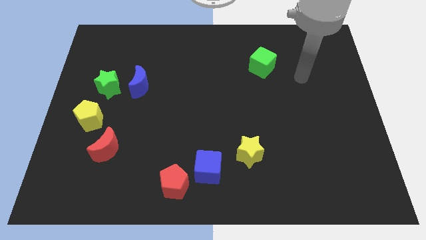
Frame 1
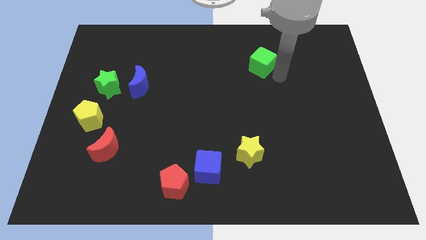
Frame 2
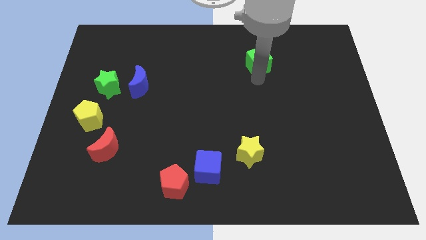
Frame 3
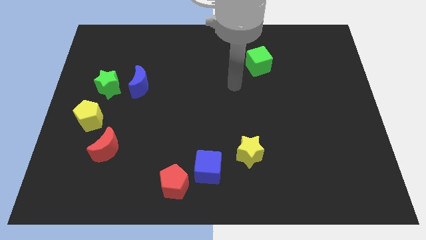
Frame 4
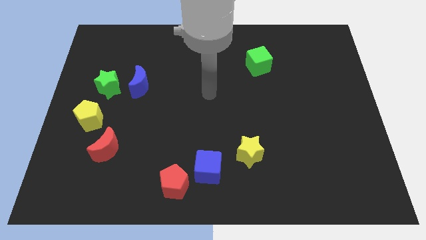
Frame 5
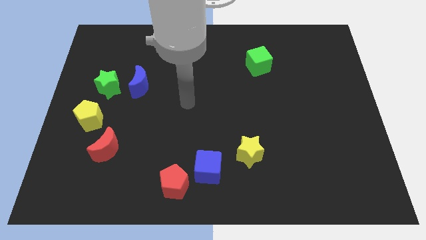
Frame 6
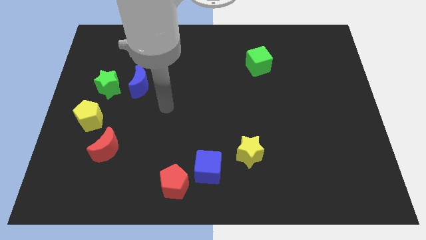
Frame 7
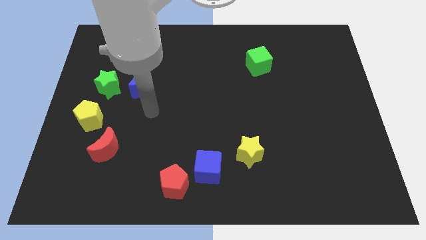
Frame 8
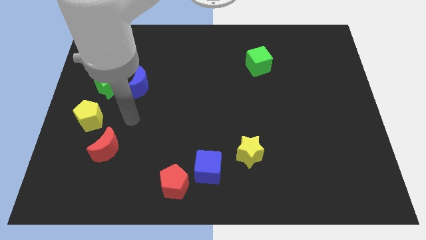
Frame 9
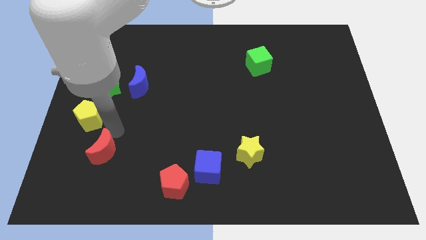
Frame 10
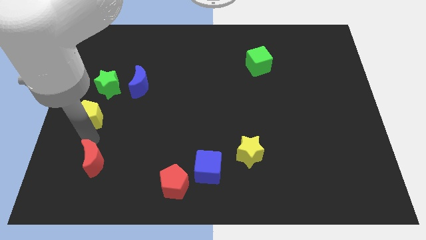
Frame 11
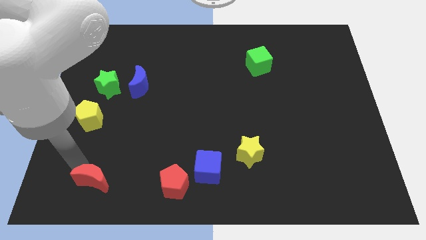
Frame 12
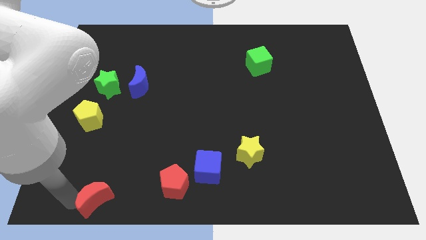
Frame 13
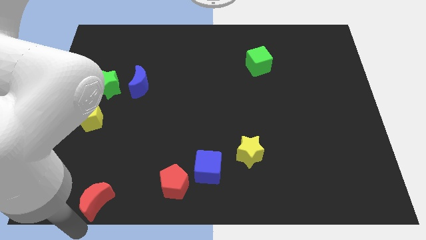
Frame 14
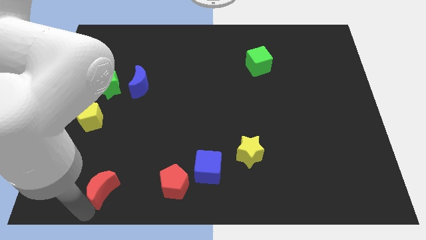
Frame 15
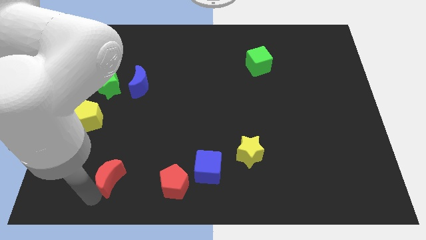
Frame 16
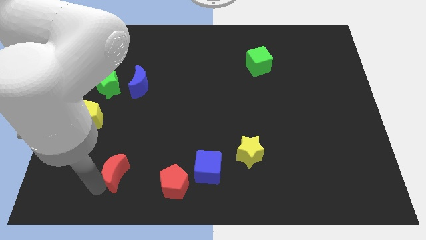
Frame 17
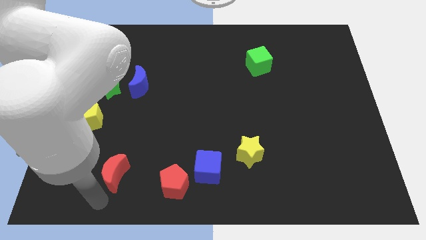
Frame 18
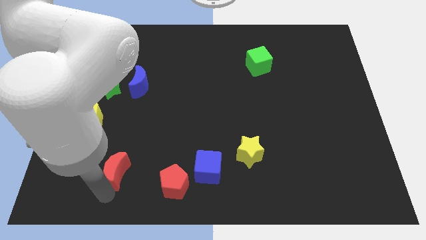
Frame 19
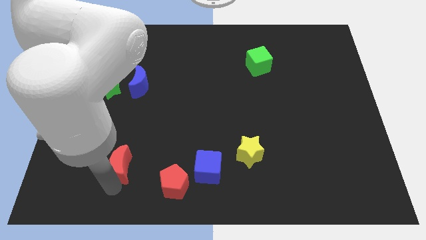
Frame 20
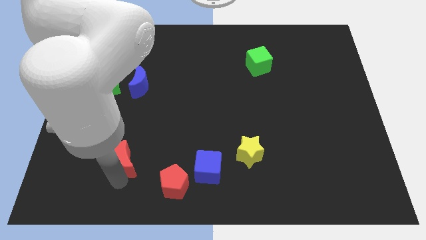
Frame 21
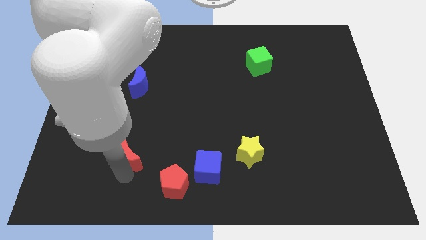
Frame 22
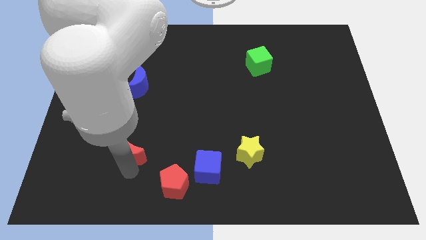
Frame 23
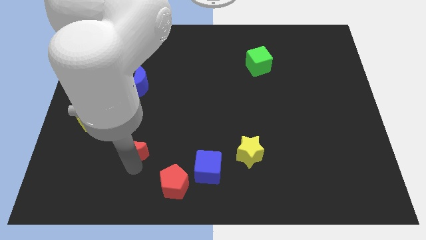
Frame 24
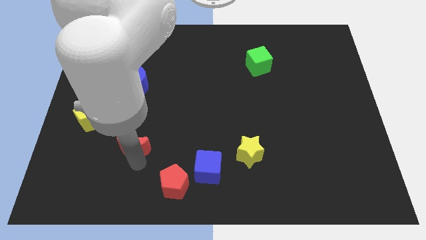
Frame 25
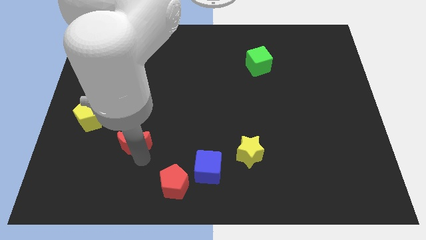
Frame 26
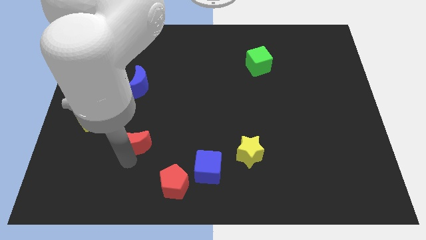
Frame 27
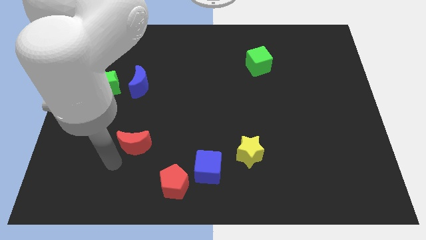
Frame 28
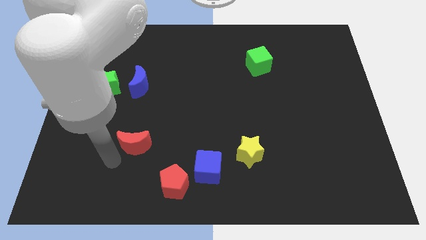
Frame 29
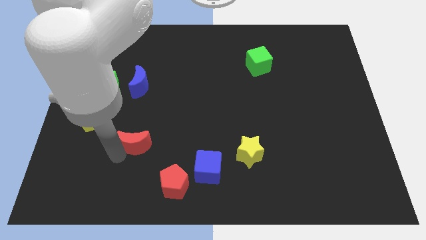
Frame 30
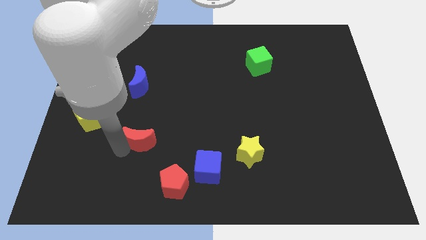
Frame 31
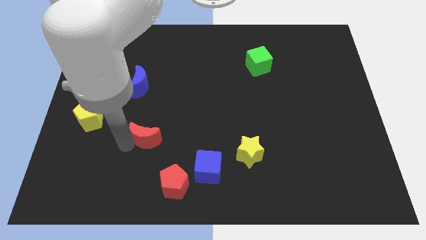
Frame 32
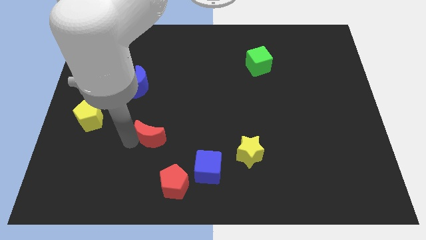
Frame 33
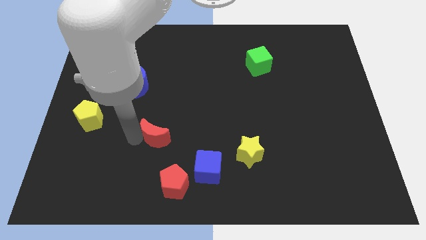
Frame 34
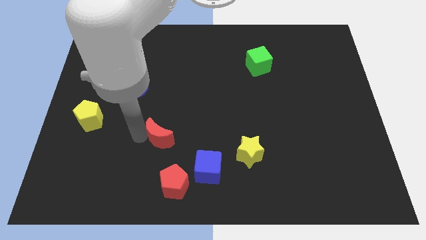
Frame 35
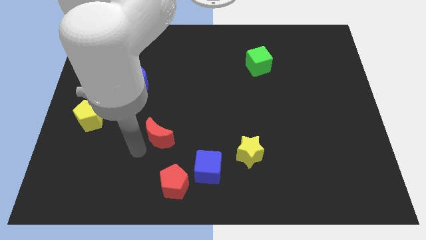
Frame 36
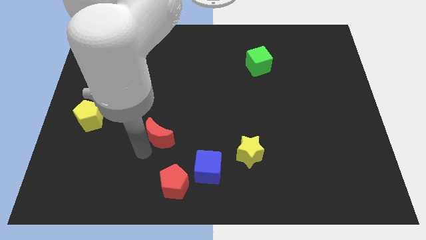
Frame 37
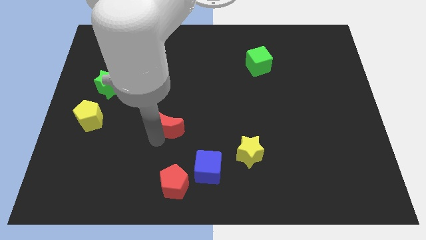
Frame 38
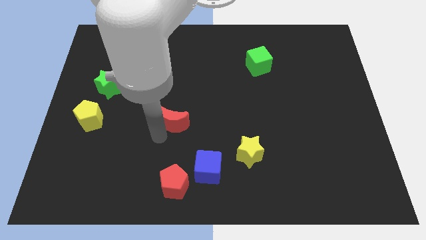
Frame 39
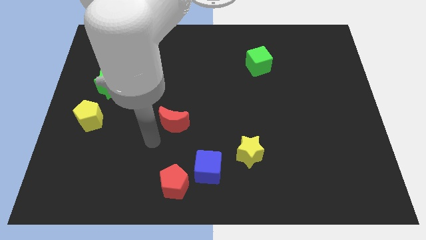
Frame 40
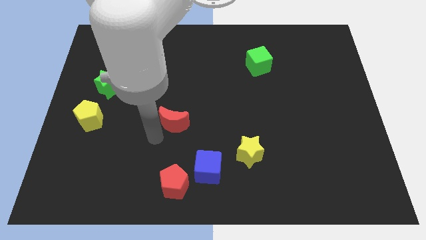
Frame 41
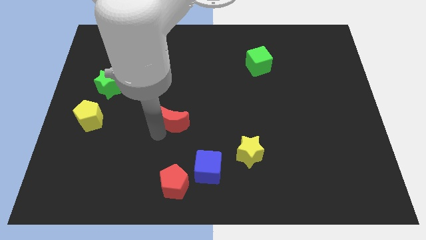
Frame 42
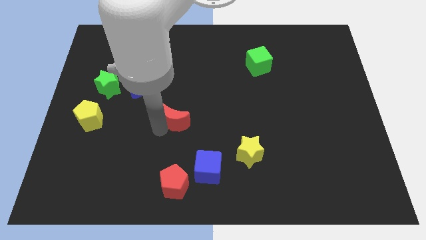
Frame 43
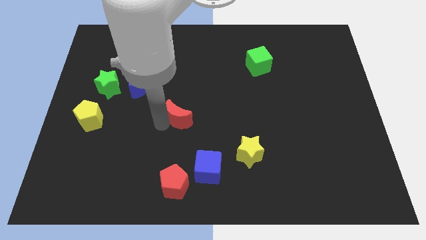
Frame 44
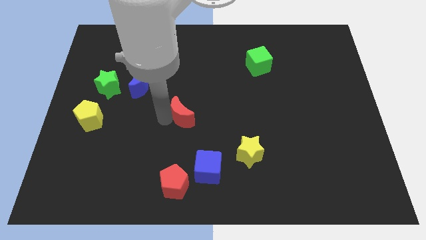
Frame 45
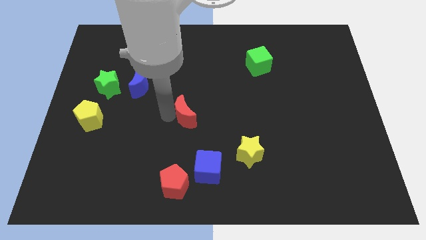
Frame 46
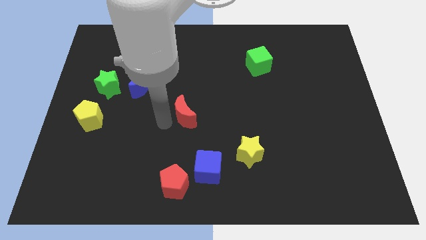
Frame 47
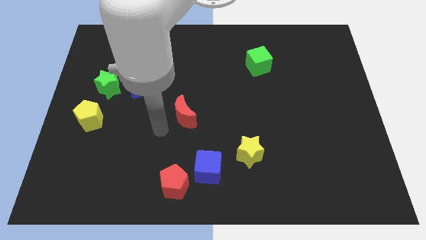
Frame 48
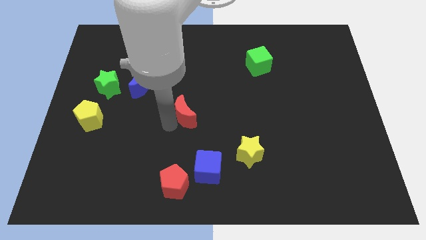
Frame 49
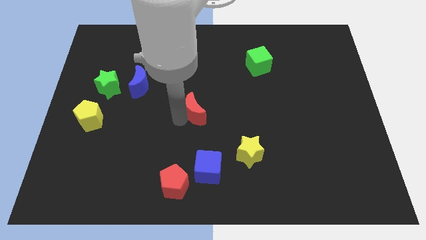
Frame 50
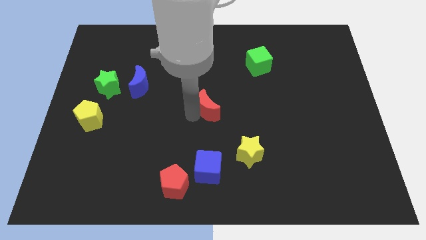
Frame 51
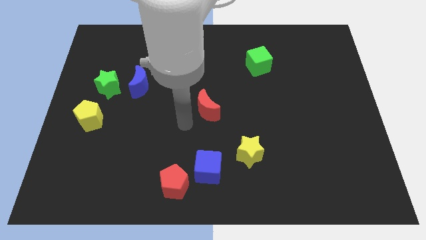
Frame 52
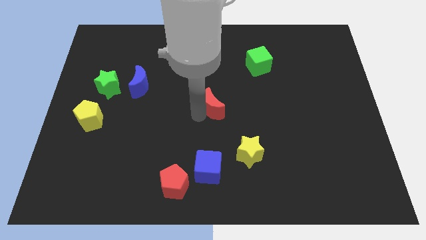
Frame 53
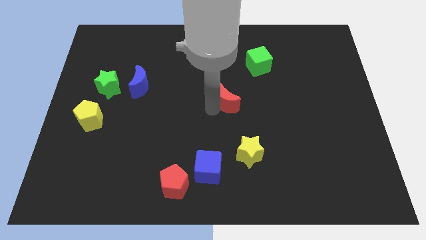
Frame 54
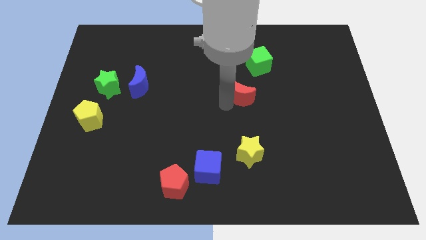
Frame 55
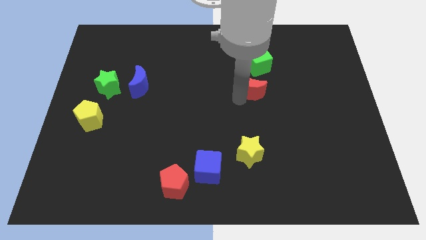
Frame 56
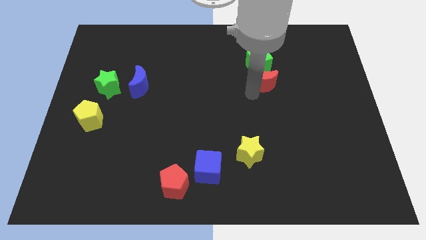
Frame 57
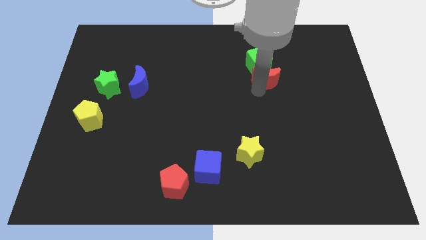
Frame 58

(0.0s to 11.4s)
put the red moon next to the green cube

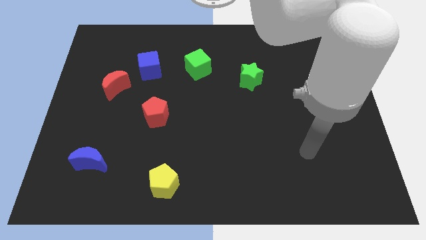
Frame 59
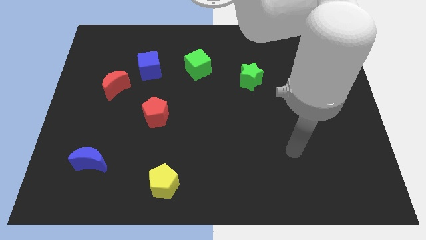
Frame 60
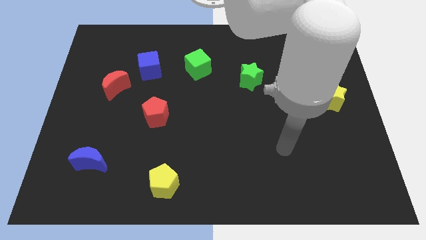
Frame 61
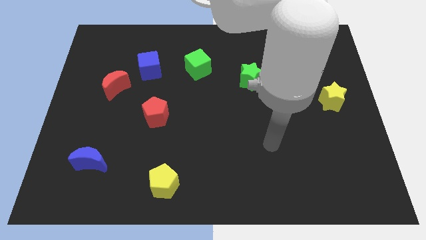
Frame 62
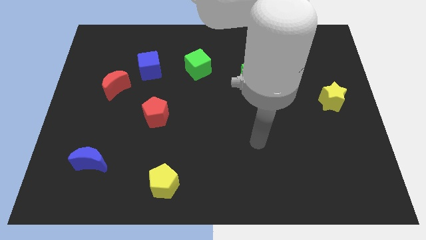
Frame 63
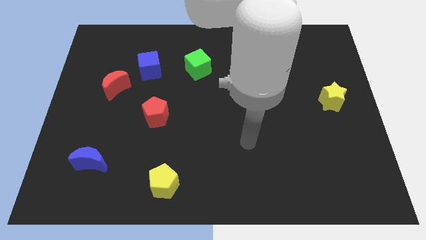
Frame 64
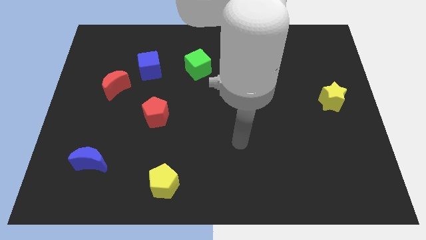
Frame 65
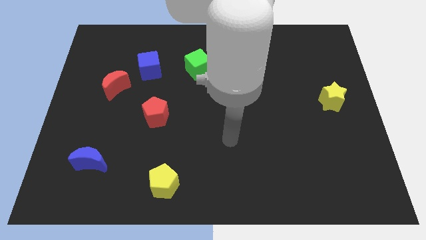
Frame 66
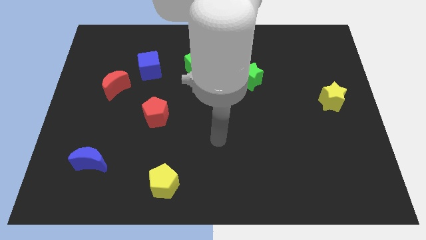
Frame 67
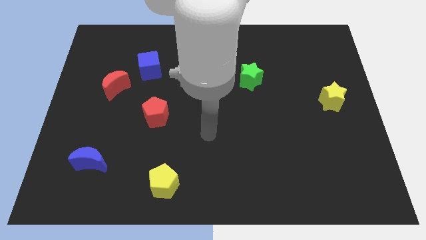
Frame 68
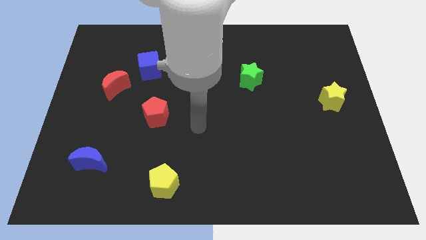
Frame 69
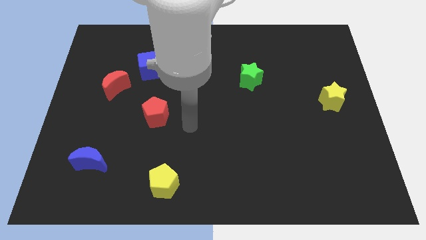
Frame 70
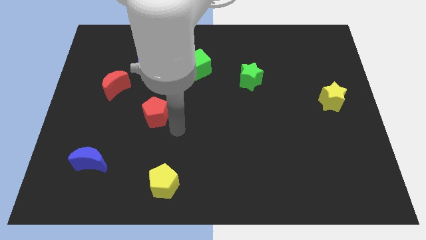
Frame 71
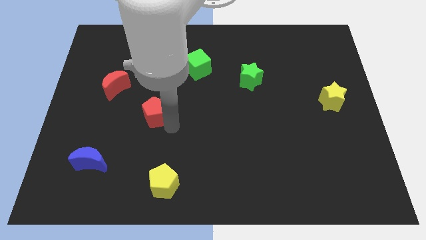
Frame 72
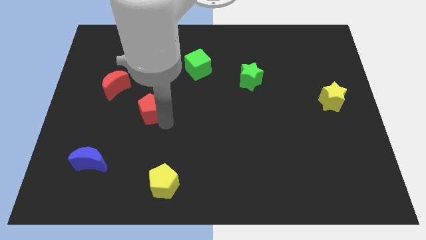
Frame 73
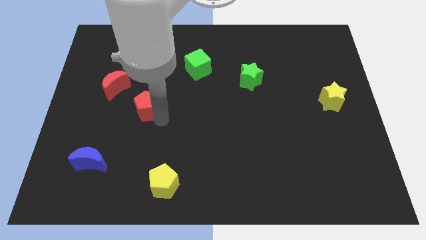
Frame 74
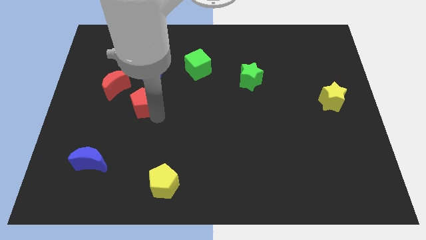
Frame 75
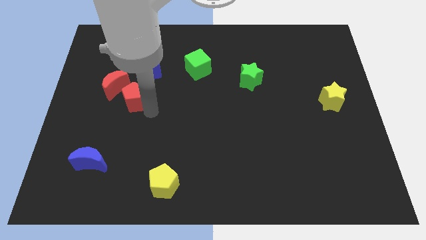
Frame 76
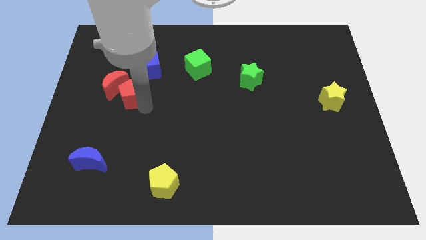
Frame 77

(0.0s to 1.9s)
put the red pentagon towards the red moon

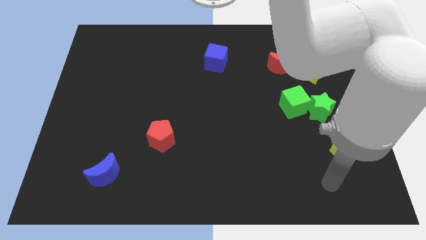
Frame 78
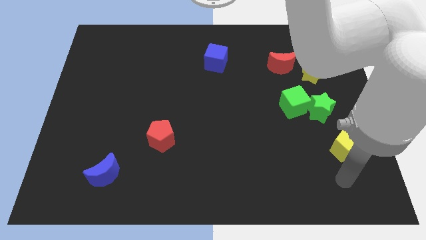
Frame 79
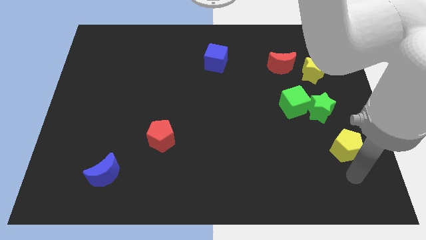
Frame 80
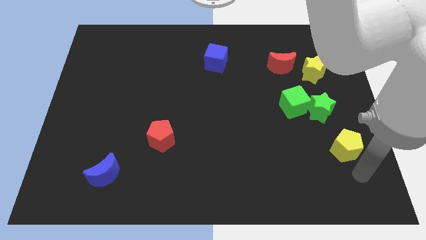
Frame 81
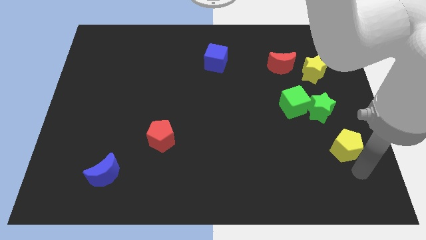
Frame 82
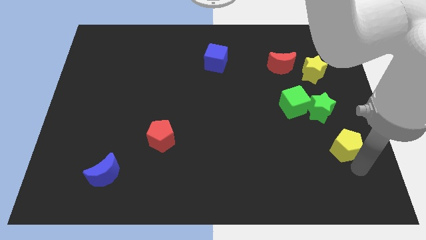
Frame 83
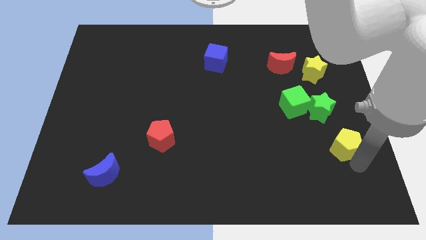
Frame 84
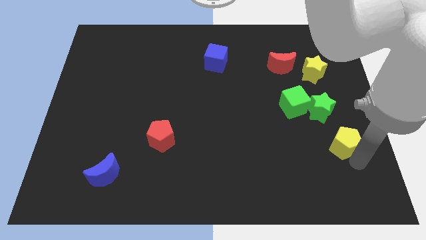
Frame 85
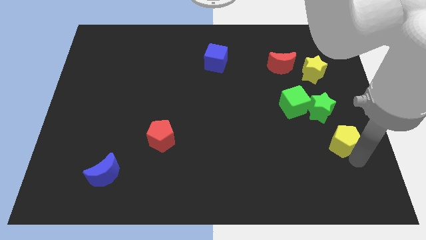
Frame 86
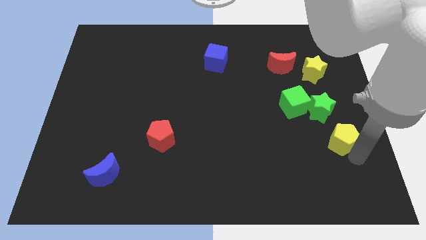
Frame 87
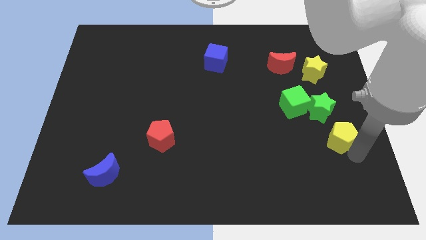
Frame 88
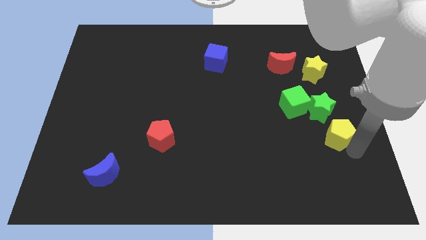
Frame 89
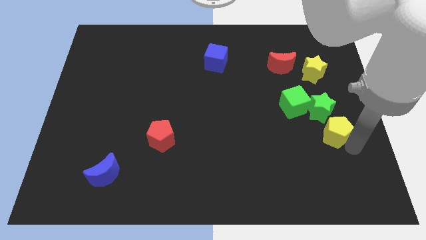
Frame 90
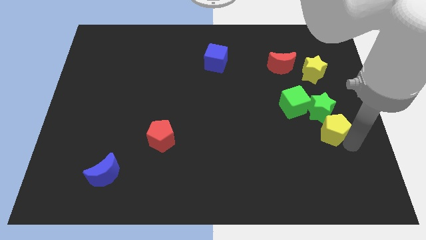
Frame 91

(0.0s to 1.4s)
push the yellow pentagon towards the green star
